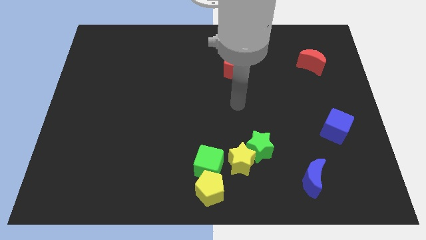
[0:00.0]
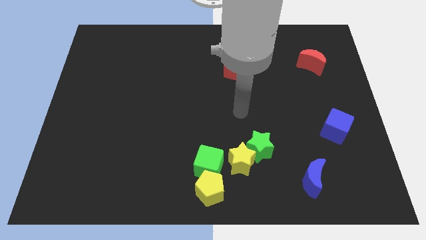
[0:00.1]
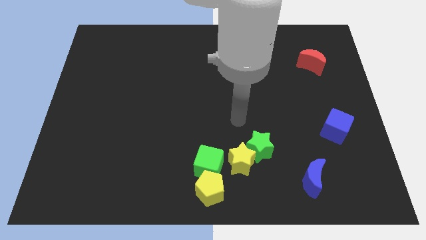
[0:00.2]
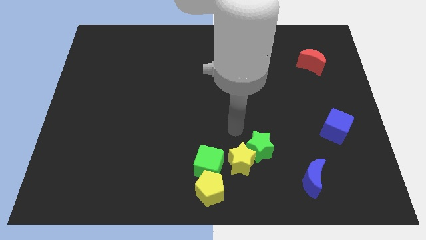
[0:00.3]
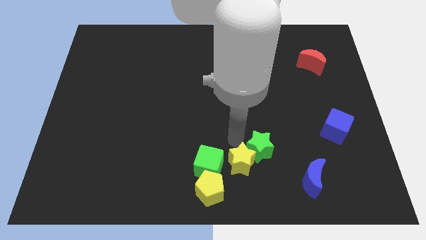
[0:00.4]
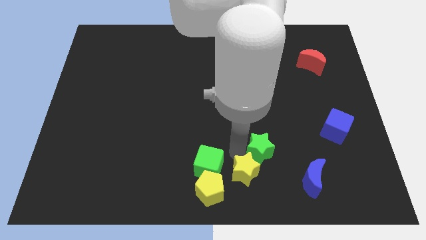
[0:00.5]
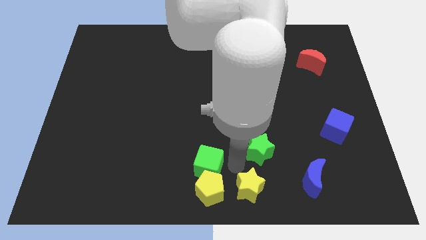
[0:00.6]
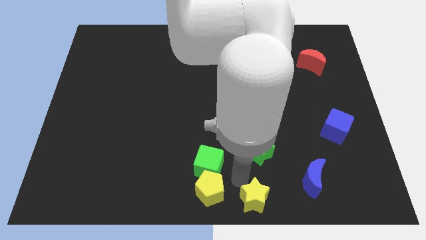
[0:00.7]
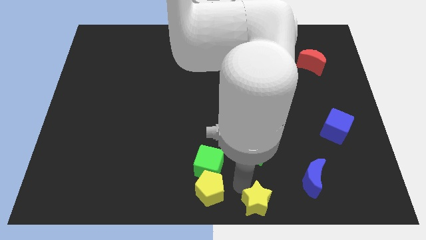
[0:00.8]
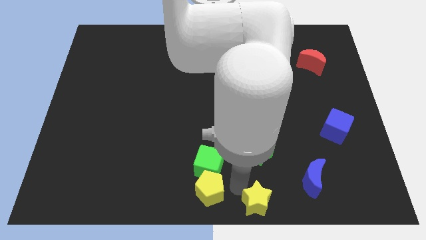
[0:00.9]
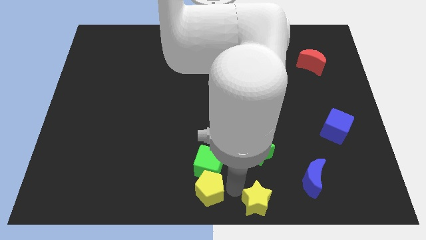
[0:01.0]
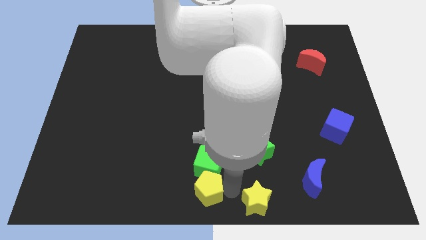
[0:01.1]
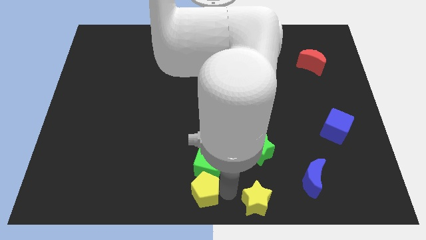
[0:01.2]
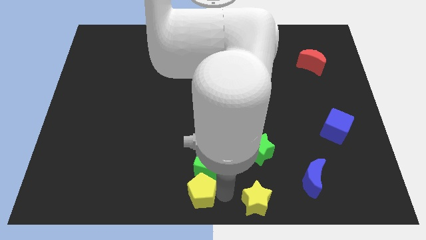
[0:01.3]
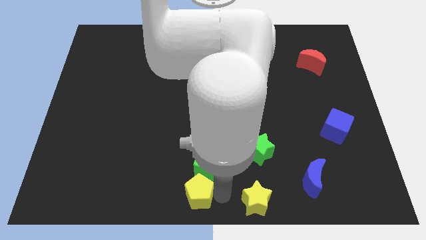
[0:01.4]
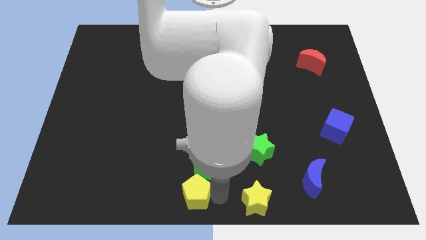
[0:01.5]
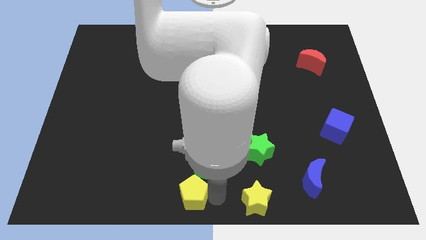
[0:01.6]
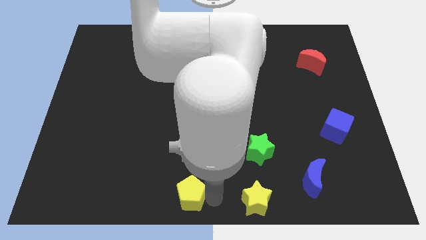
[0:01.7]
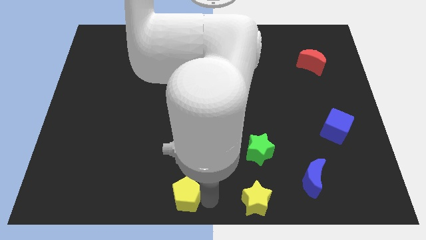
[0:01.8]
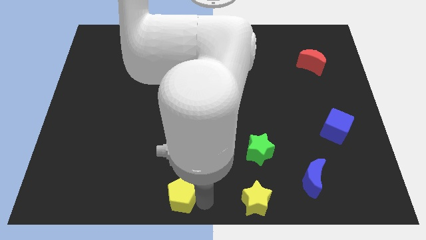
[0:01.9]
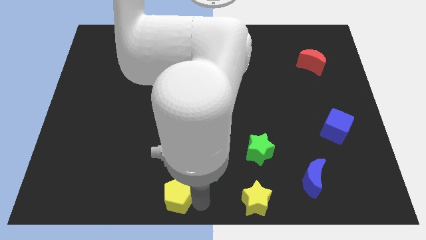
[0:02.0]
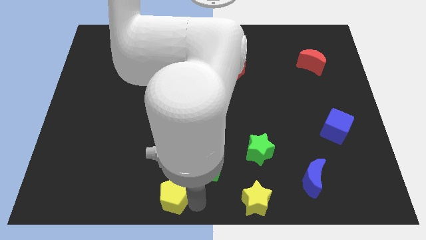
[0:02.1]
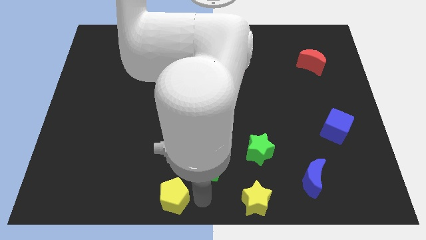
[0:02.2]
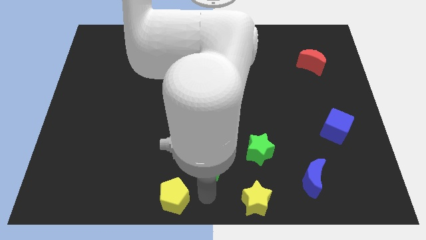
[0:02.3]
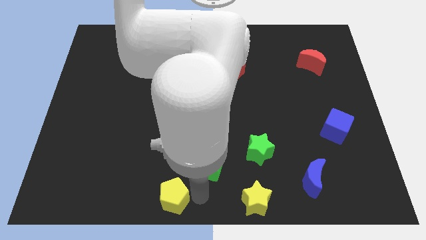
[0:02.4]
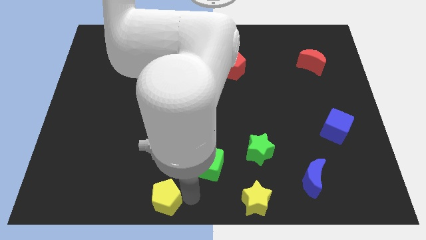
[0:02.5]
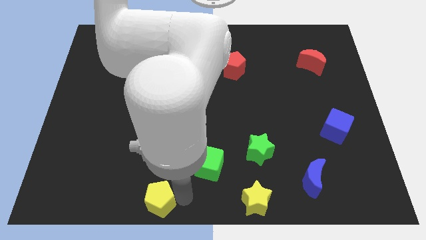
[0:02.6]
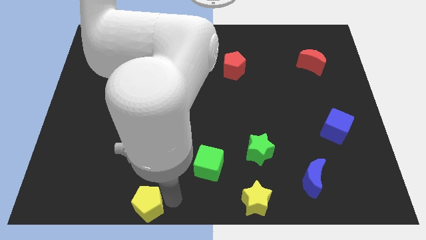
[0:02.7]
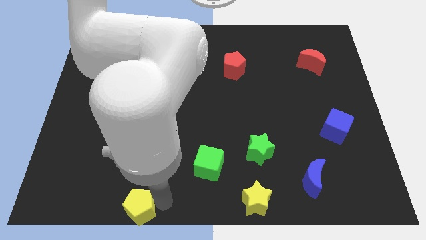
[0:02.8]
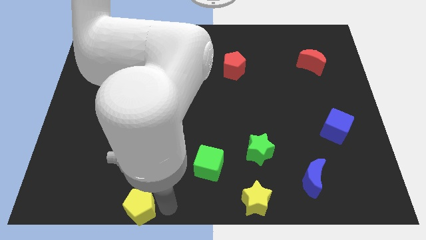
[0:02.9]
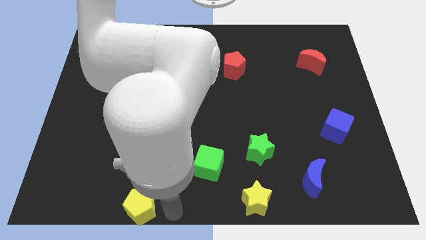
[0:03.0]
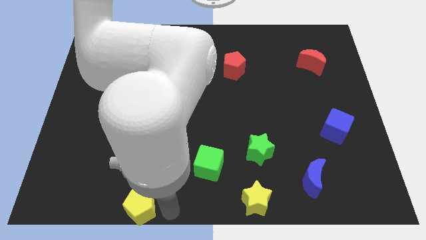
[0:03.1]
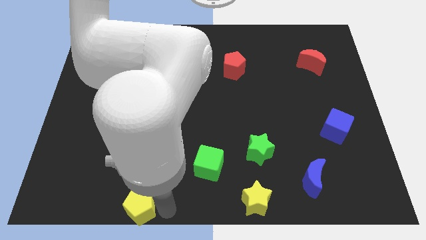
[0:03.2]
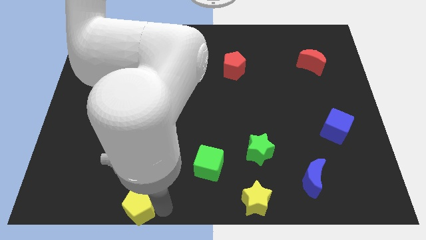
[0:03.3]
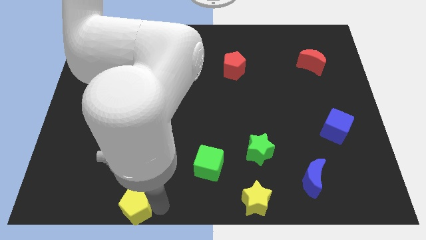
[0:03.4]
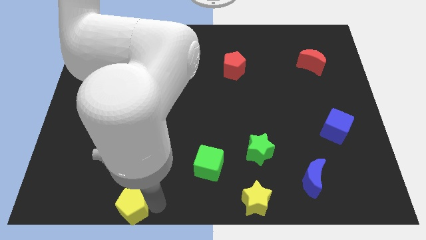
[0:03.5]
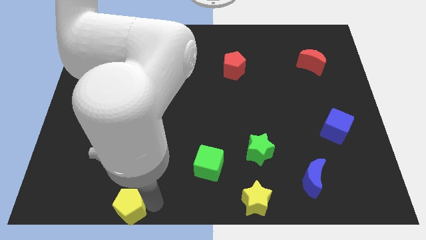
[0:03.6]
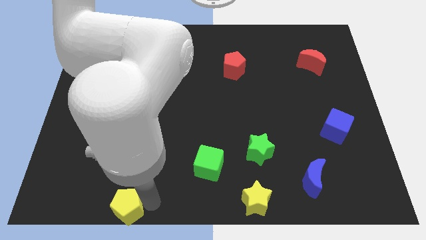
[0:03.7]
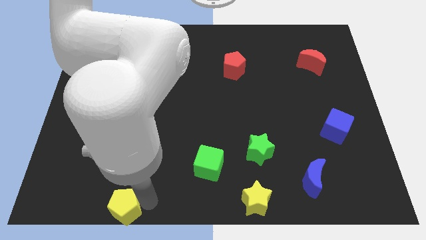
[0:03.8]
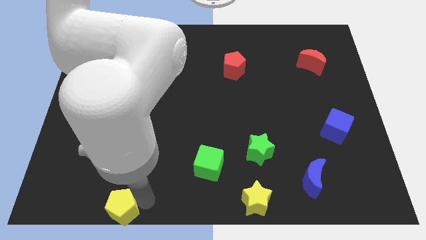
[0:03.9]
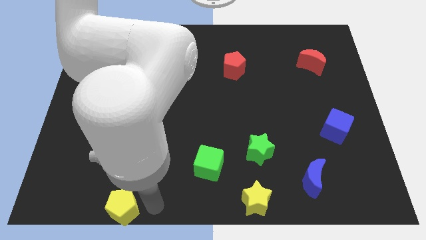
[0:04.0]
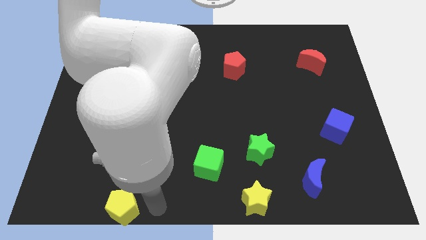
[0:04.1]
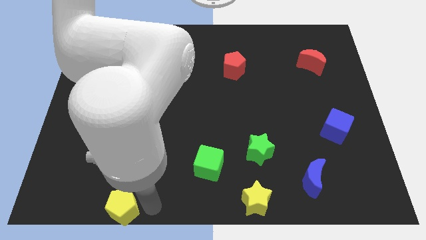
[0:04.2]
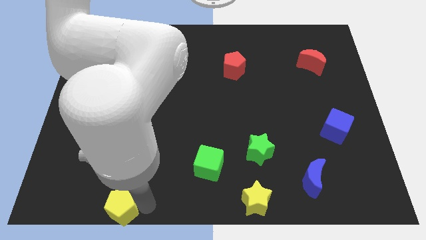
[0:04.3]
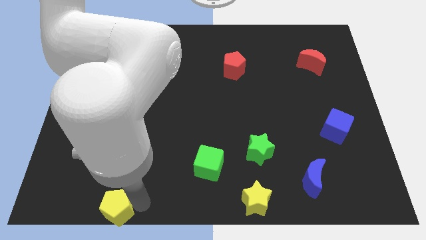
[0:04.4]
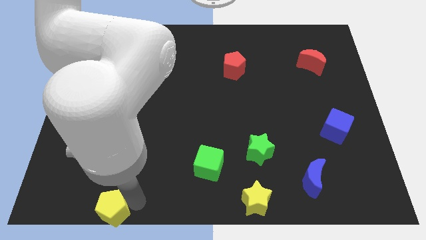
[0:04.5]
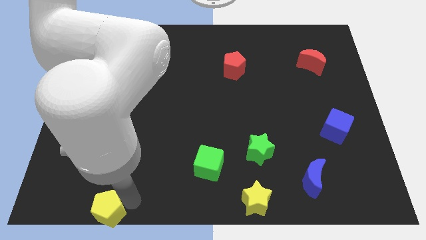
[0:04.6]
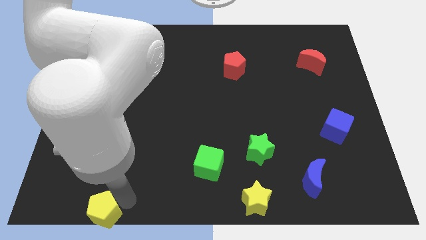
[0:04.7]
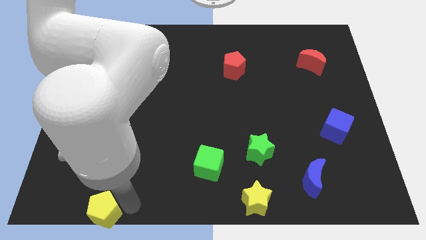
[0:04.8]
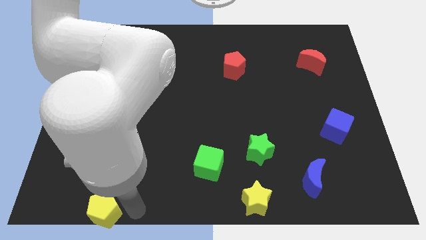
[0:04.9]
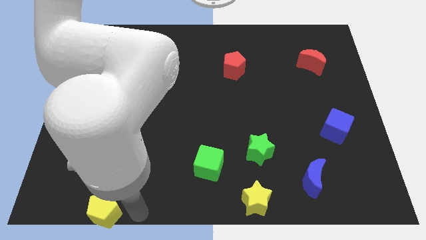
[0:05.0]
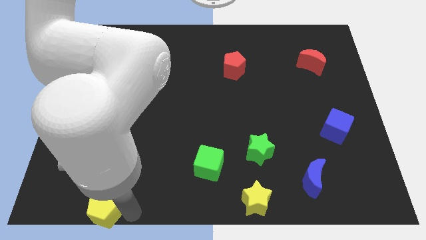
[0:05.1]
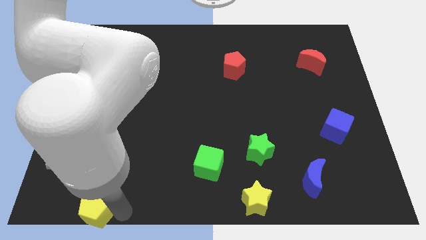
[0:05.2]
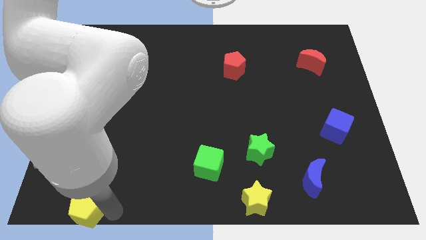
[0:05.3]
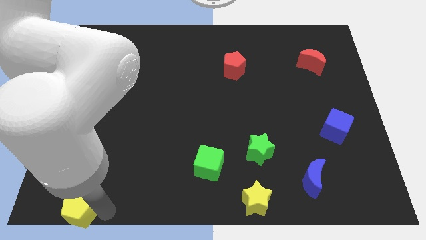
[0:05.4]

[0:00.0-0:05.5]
put the yellow pentagon to the bottom left of the board
